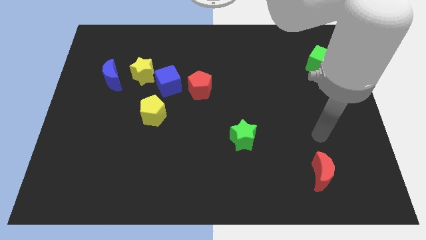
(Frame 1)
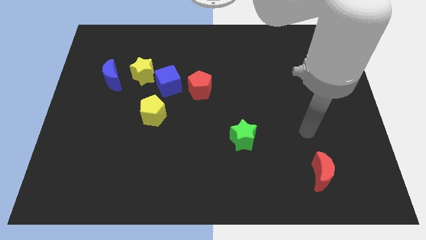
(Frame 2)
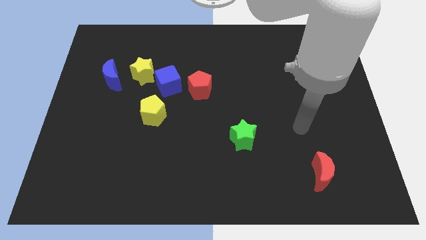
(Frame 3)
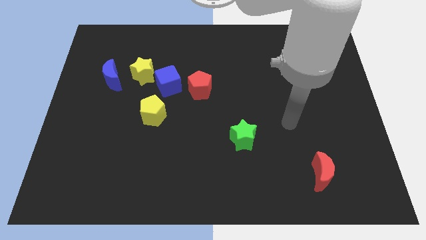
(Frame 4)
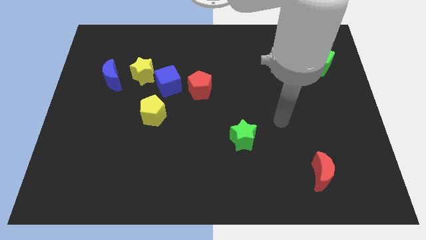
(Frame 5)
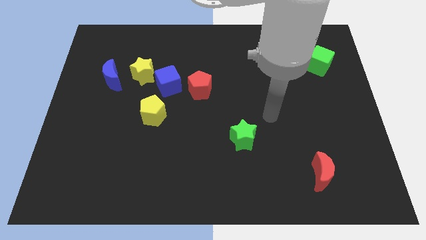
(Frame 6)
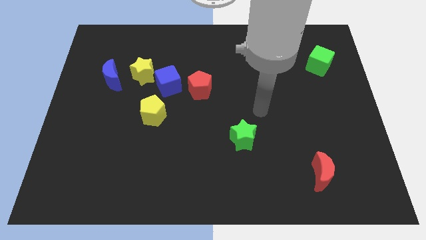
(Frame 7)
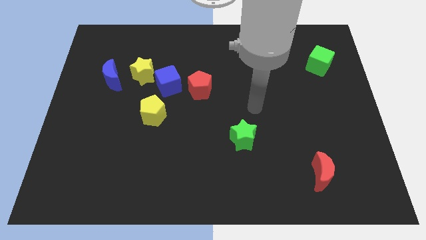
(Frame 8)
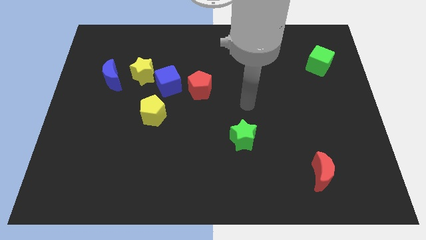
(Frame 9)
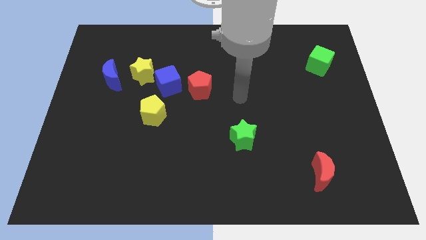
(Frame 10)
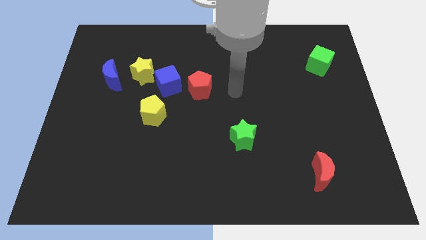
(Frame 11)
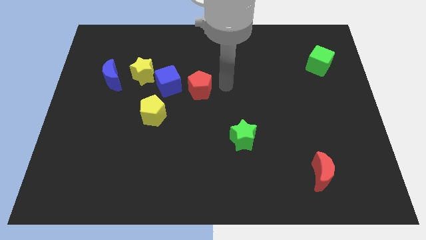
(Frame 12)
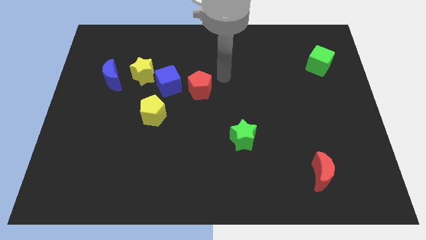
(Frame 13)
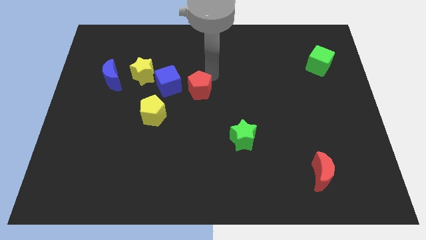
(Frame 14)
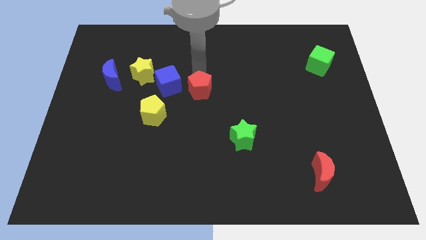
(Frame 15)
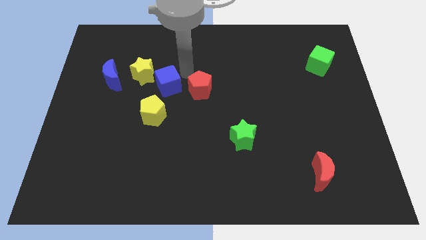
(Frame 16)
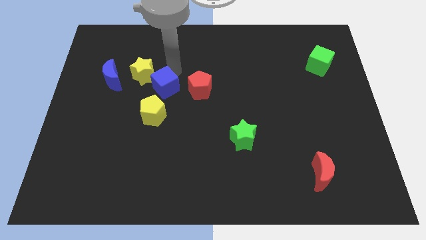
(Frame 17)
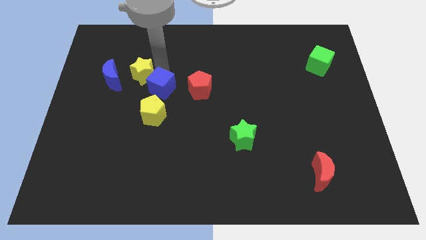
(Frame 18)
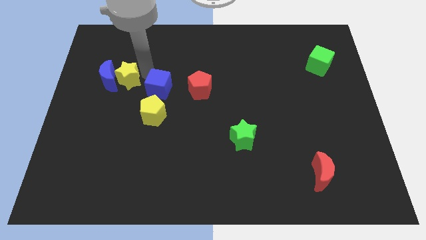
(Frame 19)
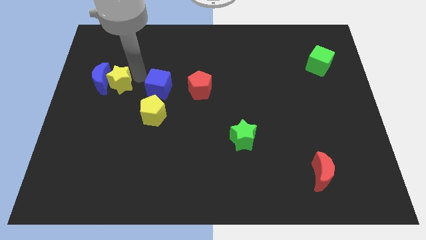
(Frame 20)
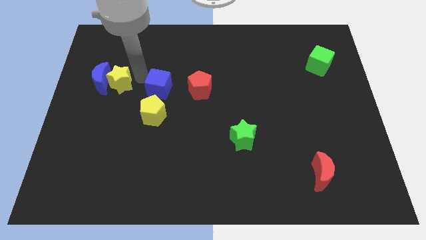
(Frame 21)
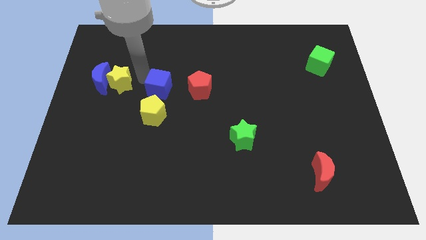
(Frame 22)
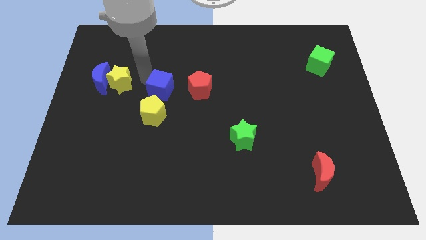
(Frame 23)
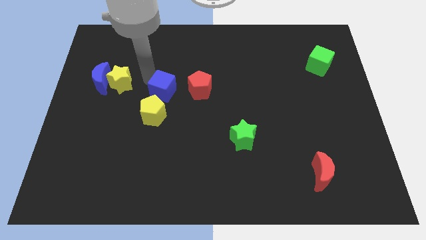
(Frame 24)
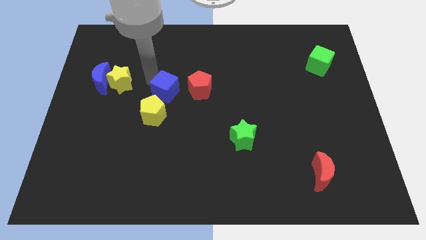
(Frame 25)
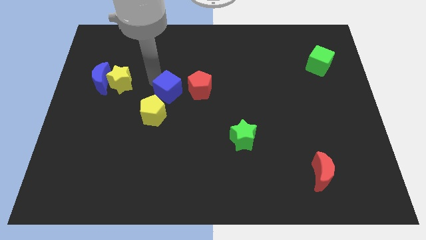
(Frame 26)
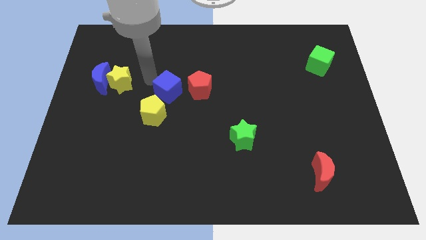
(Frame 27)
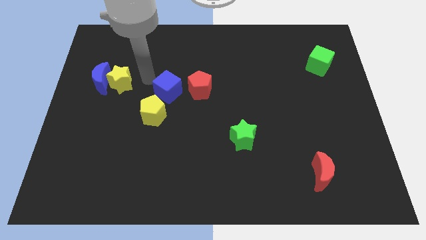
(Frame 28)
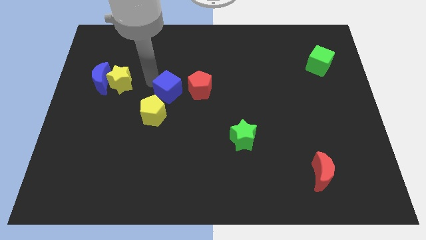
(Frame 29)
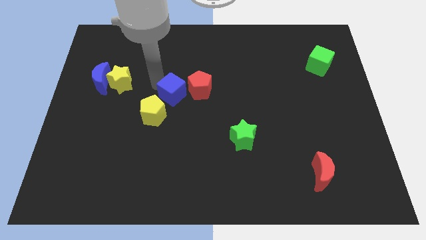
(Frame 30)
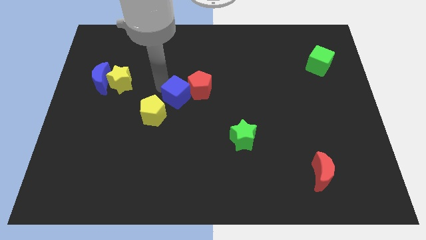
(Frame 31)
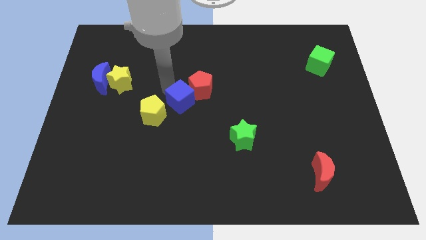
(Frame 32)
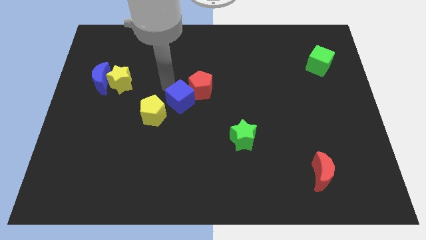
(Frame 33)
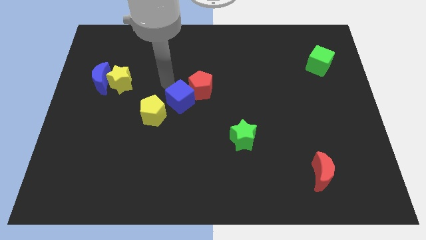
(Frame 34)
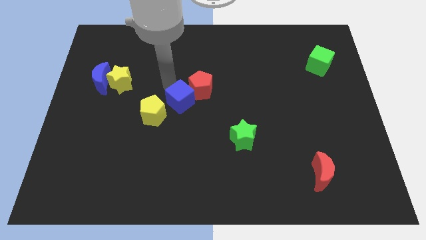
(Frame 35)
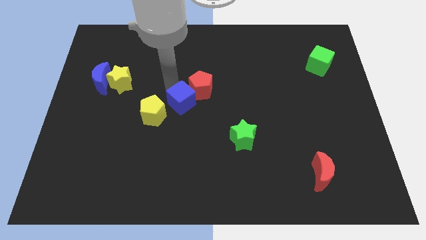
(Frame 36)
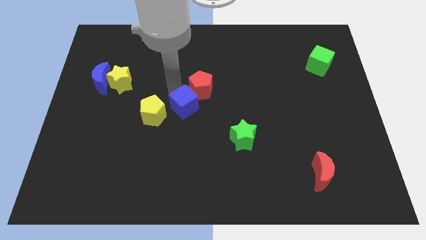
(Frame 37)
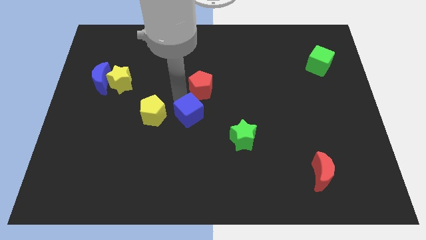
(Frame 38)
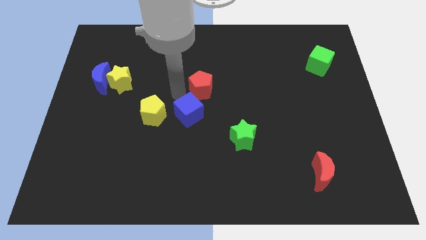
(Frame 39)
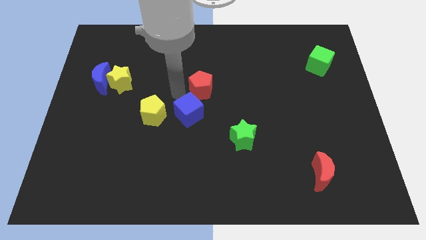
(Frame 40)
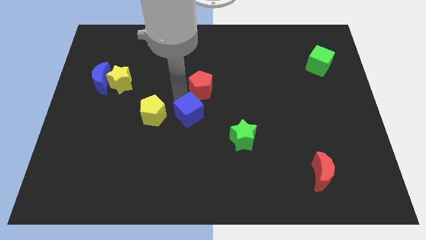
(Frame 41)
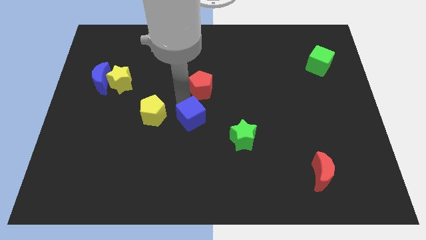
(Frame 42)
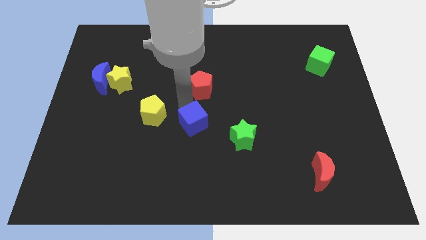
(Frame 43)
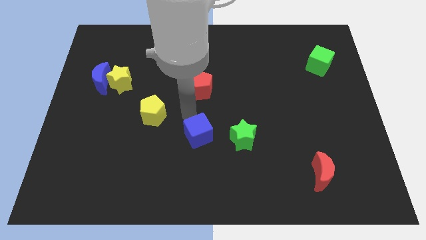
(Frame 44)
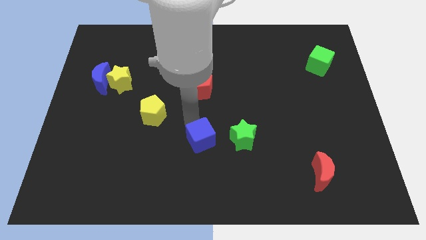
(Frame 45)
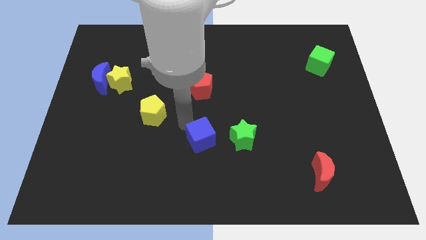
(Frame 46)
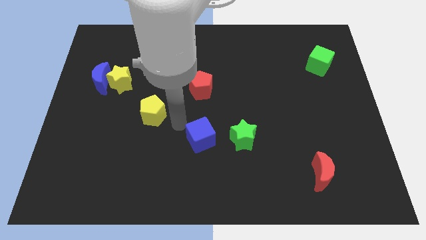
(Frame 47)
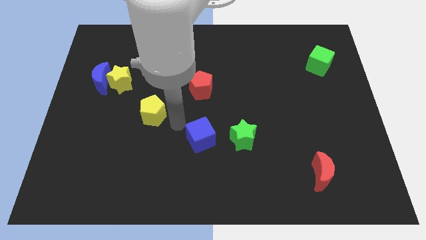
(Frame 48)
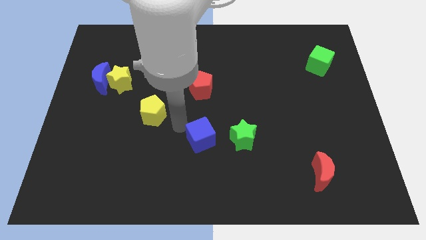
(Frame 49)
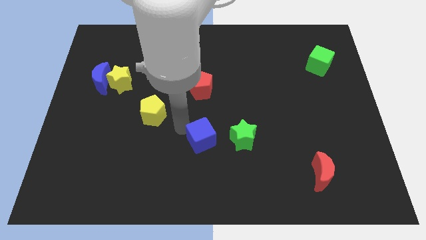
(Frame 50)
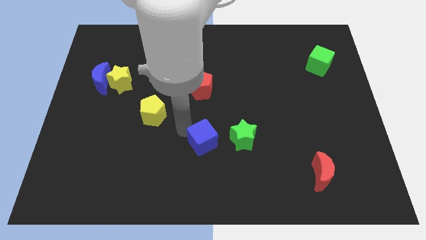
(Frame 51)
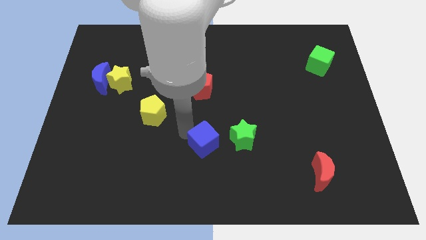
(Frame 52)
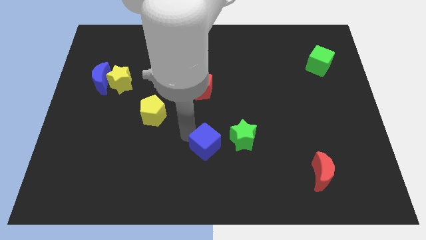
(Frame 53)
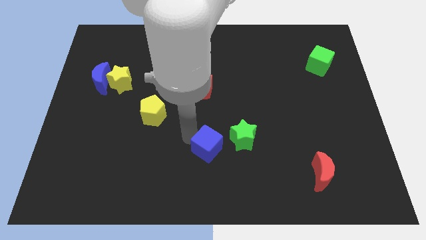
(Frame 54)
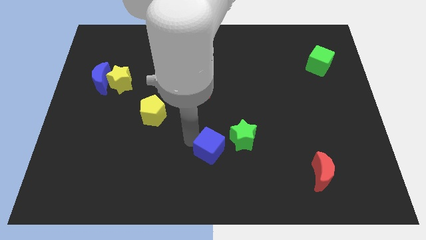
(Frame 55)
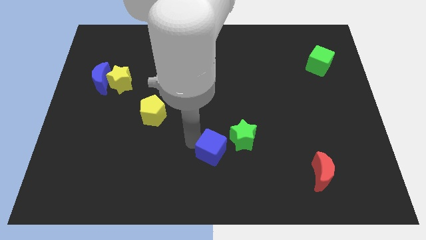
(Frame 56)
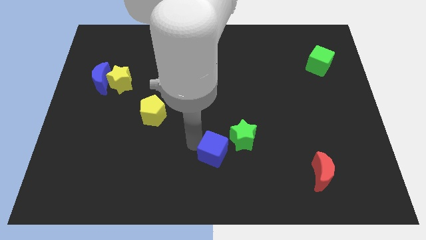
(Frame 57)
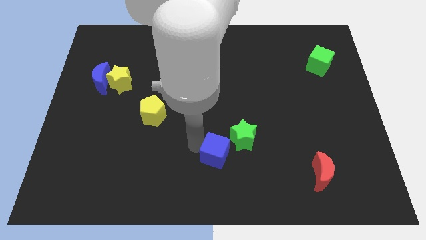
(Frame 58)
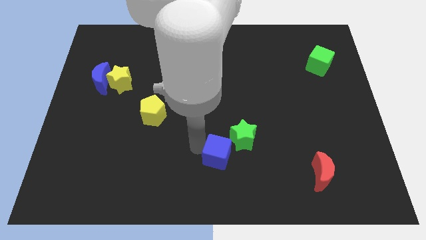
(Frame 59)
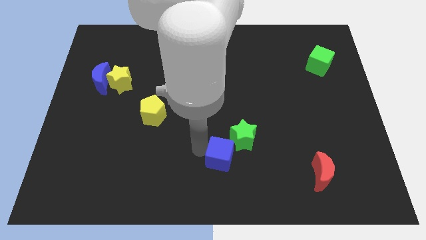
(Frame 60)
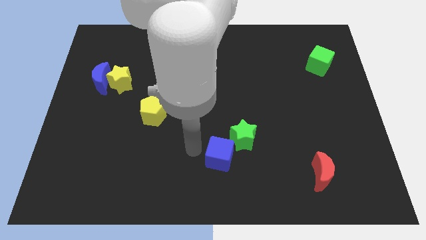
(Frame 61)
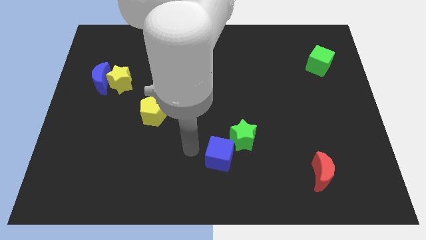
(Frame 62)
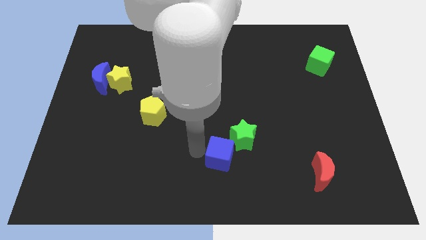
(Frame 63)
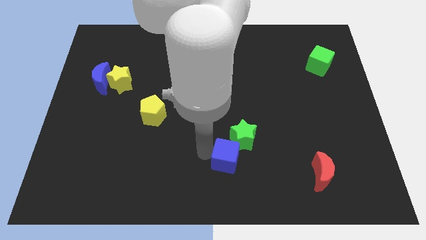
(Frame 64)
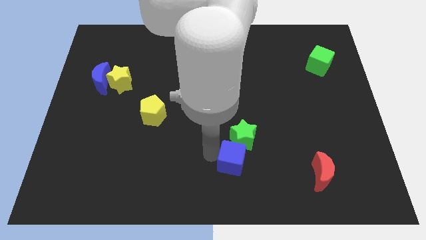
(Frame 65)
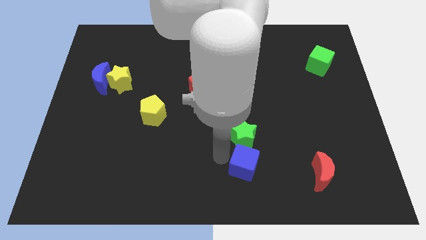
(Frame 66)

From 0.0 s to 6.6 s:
move the blue cube to the left of the red moon
